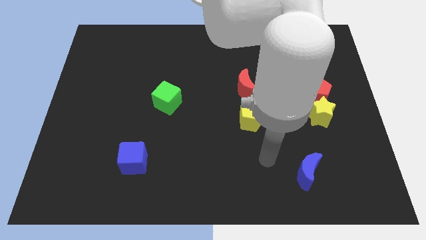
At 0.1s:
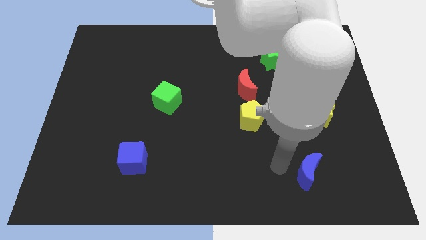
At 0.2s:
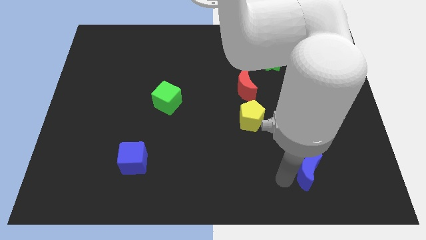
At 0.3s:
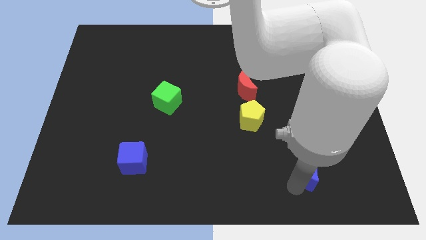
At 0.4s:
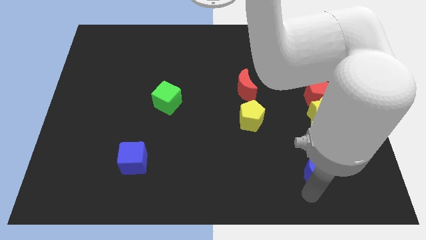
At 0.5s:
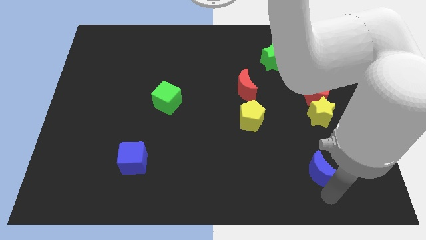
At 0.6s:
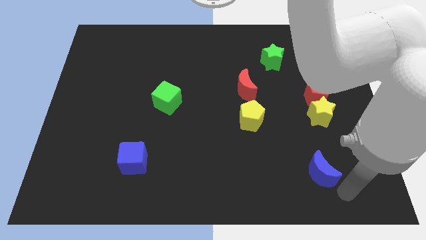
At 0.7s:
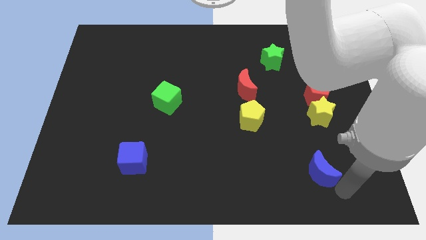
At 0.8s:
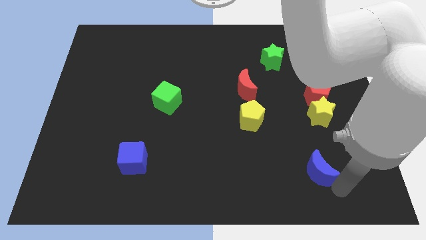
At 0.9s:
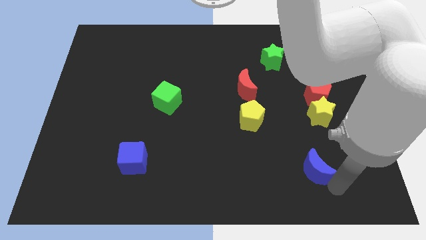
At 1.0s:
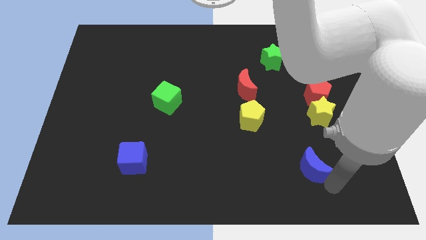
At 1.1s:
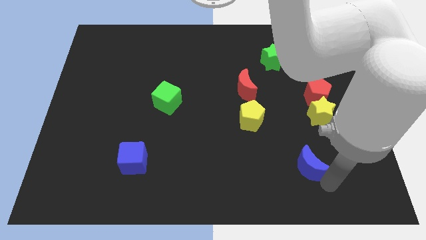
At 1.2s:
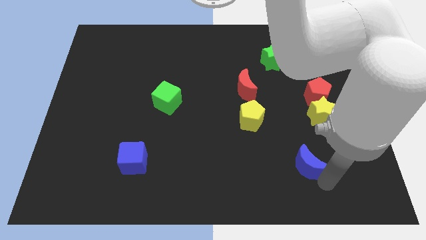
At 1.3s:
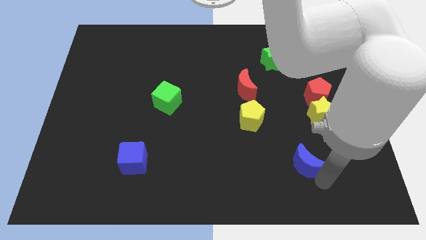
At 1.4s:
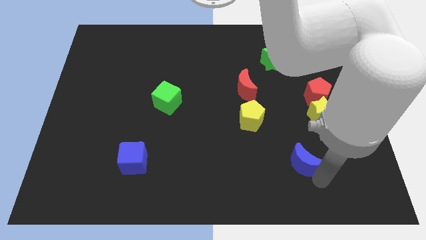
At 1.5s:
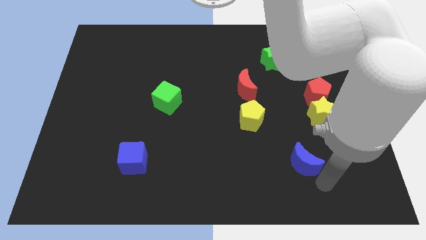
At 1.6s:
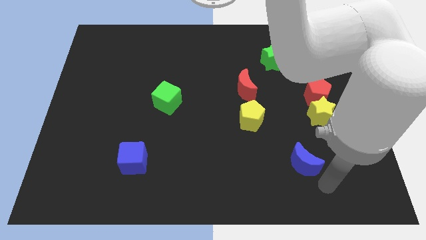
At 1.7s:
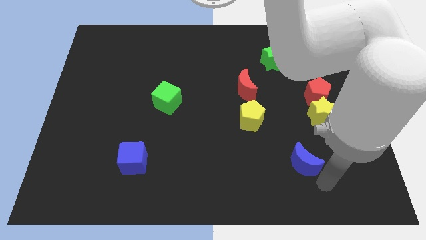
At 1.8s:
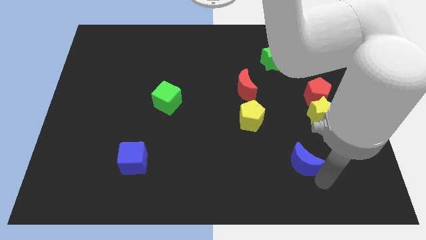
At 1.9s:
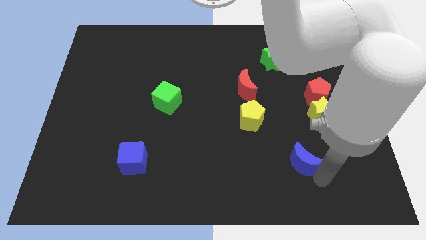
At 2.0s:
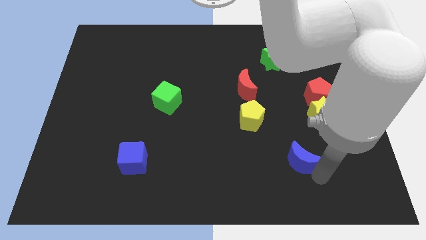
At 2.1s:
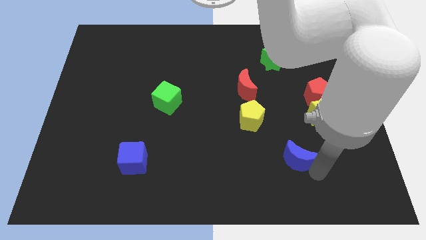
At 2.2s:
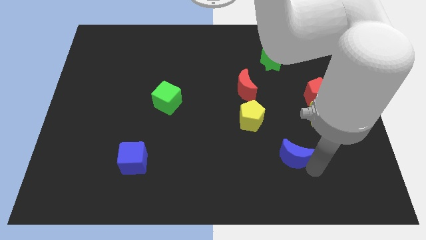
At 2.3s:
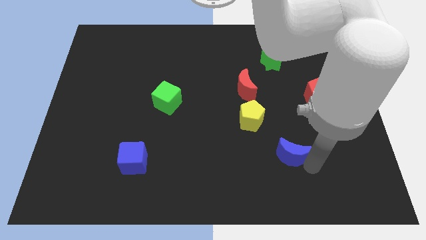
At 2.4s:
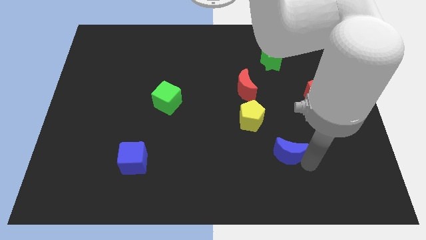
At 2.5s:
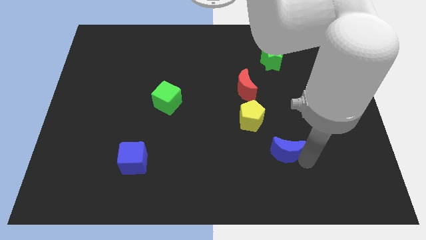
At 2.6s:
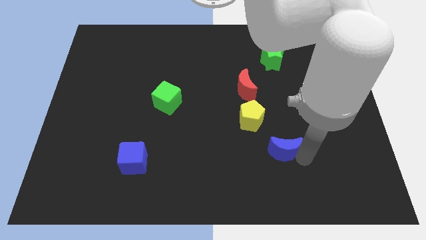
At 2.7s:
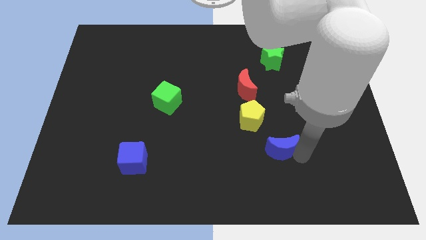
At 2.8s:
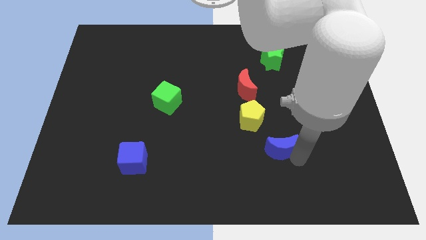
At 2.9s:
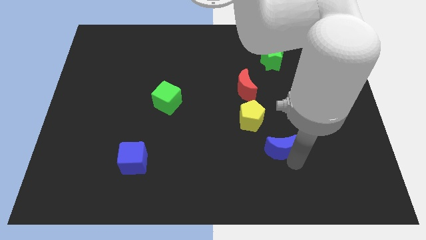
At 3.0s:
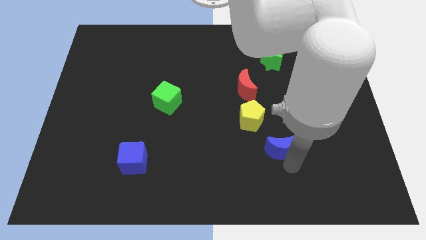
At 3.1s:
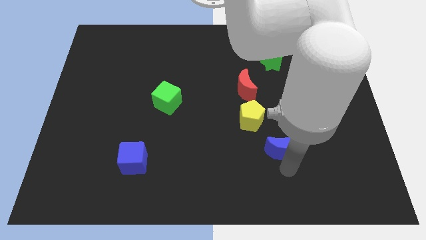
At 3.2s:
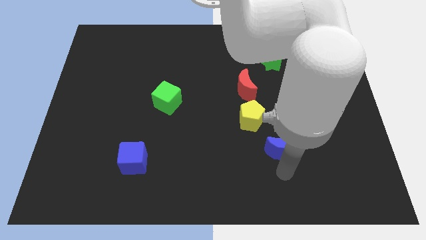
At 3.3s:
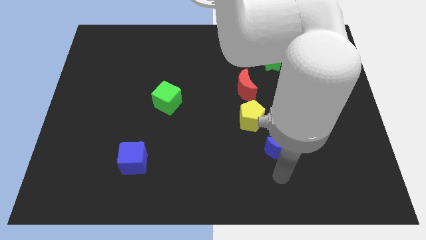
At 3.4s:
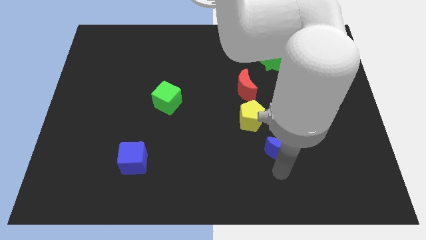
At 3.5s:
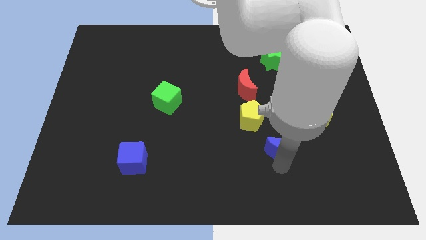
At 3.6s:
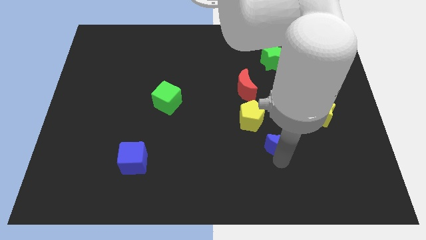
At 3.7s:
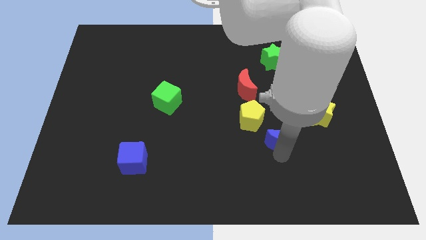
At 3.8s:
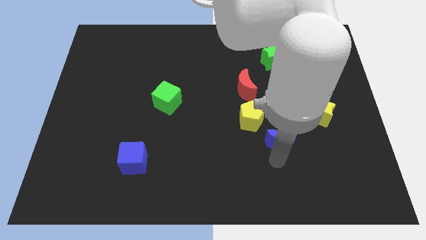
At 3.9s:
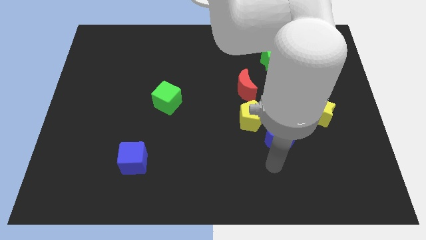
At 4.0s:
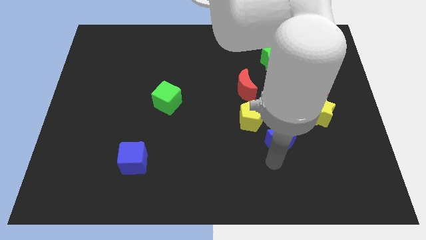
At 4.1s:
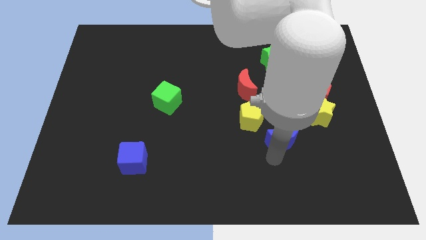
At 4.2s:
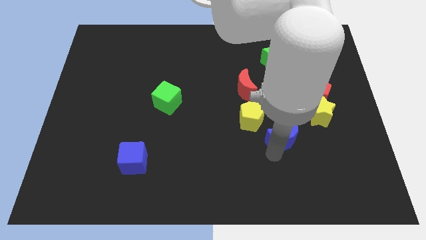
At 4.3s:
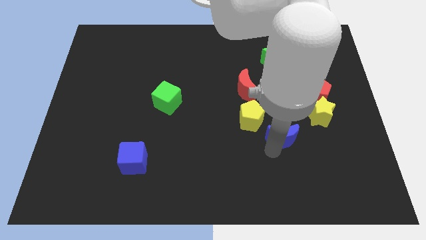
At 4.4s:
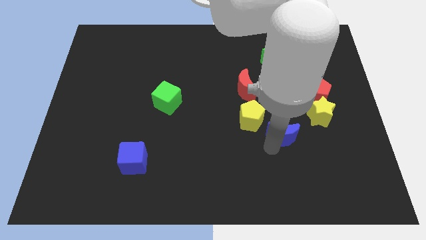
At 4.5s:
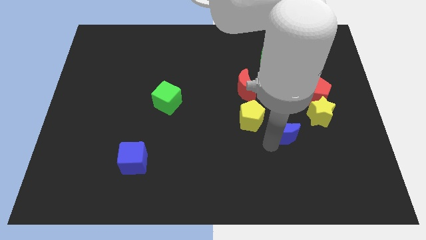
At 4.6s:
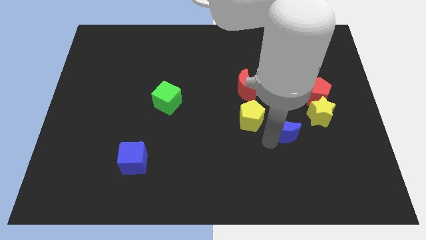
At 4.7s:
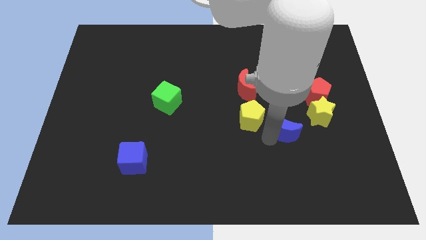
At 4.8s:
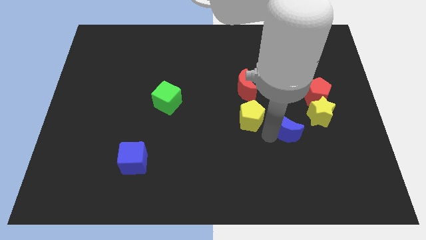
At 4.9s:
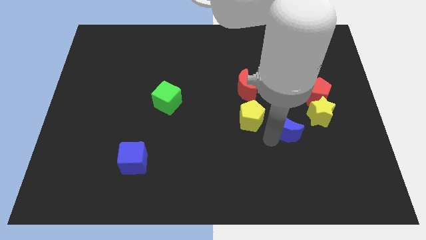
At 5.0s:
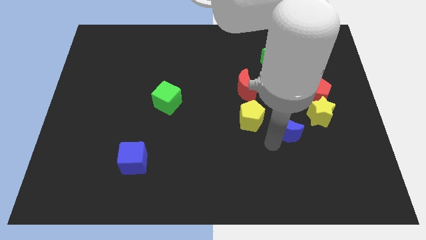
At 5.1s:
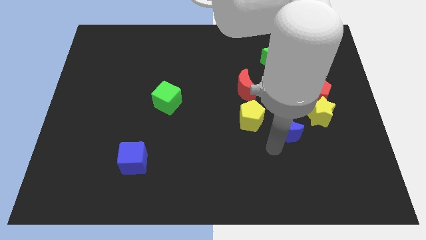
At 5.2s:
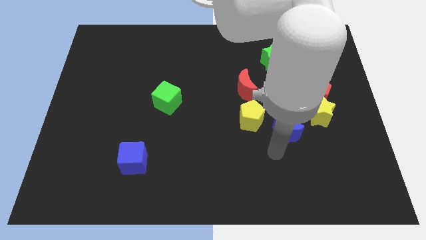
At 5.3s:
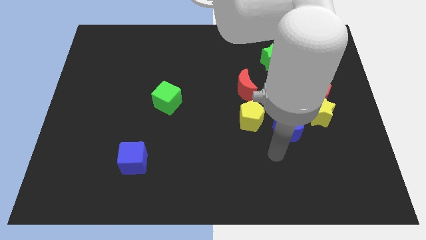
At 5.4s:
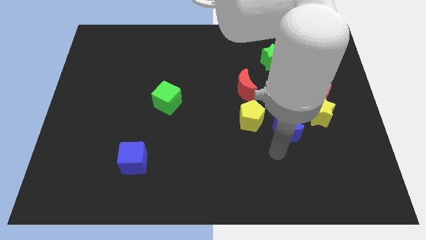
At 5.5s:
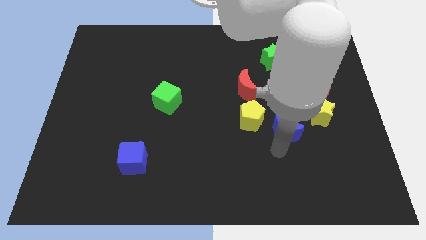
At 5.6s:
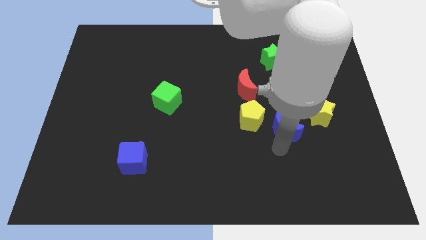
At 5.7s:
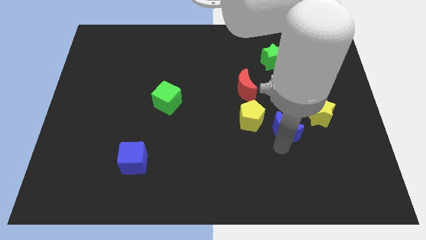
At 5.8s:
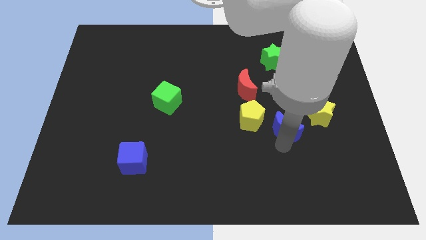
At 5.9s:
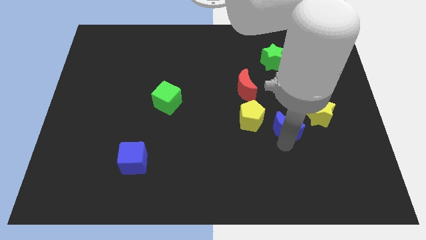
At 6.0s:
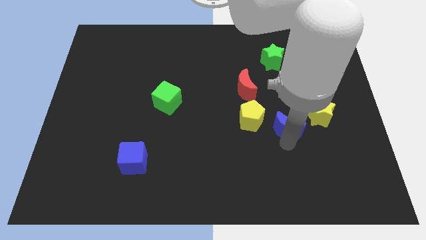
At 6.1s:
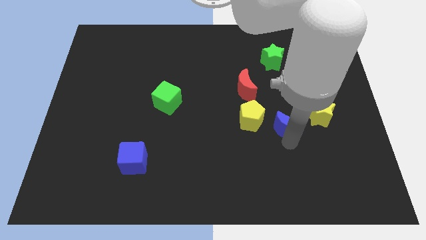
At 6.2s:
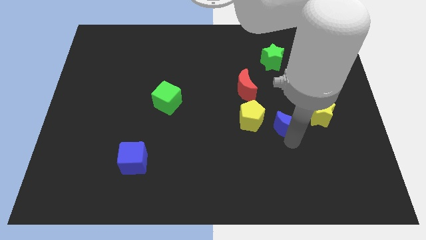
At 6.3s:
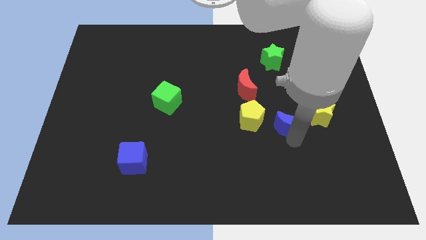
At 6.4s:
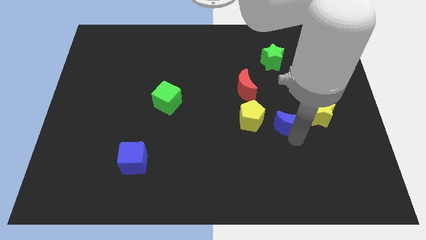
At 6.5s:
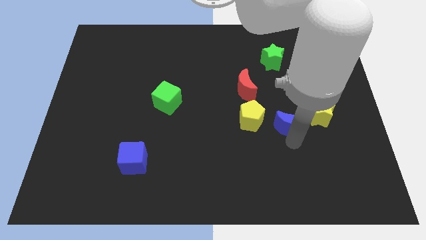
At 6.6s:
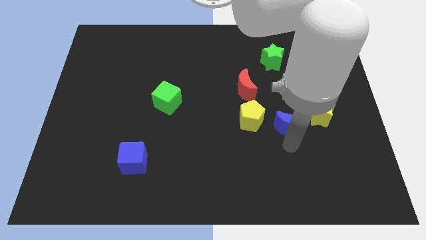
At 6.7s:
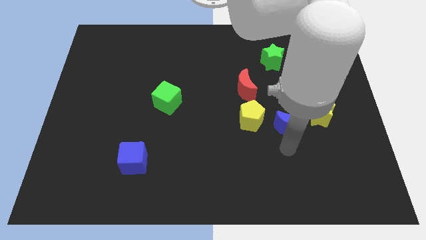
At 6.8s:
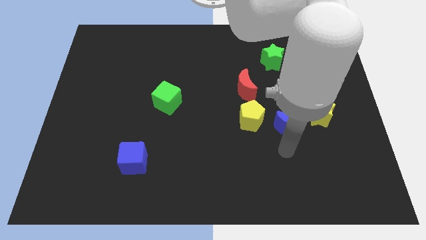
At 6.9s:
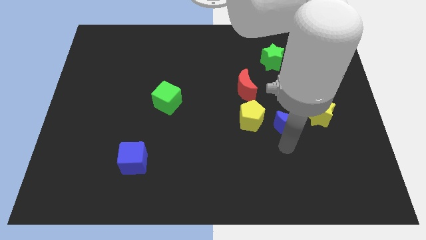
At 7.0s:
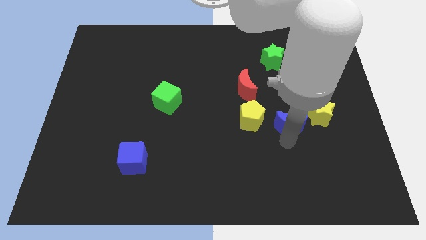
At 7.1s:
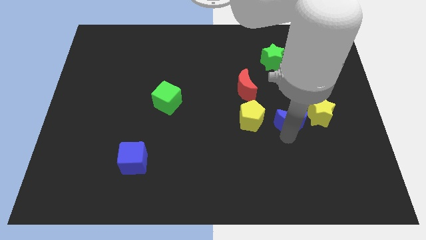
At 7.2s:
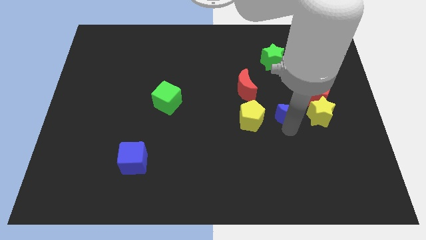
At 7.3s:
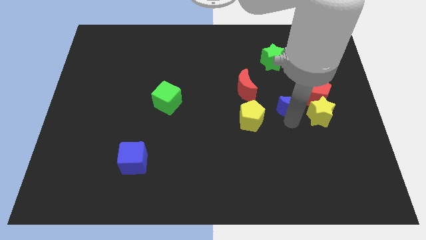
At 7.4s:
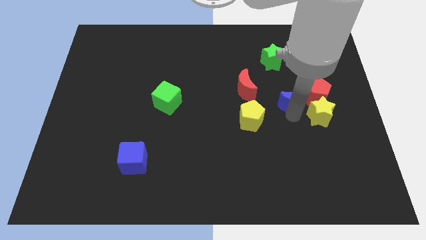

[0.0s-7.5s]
push the blue moon to the right of the red moon
